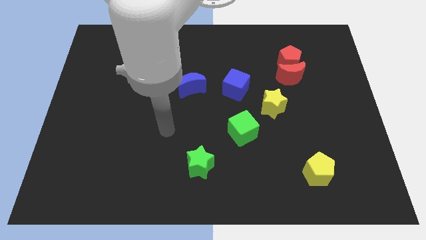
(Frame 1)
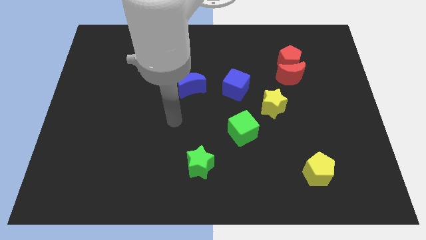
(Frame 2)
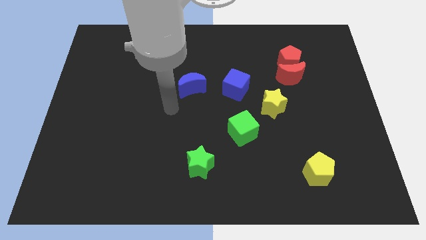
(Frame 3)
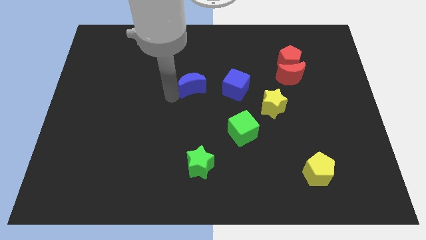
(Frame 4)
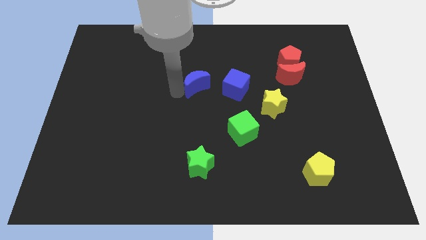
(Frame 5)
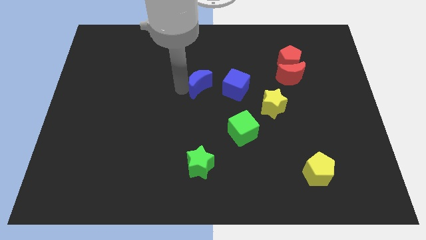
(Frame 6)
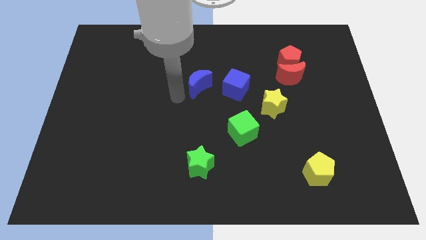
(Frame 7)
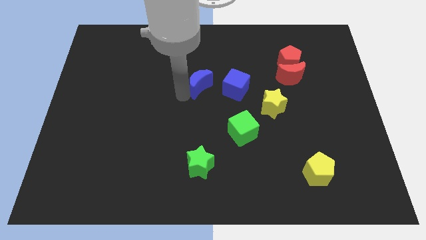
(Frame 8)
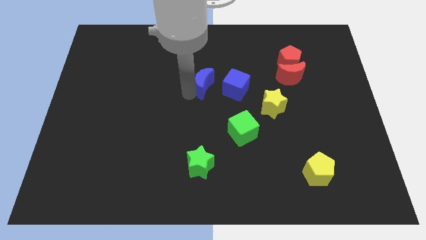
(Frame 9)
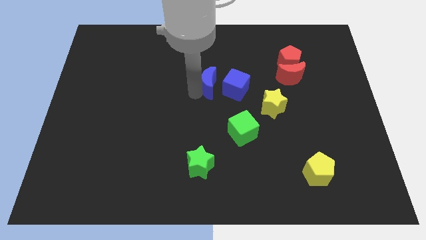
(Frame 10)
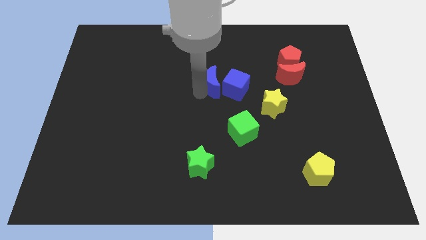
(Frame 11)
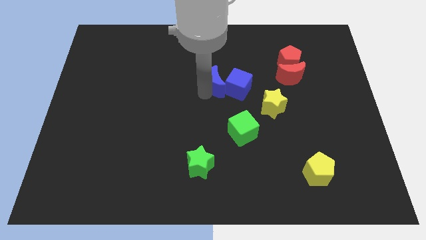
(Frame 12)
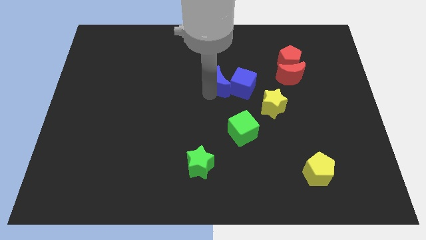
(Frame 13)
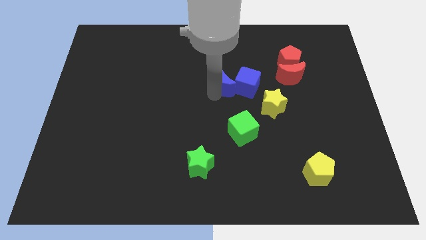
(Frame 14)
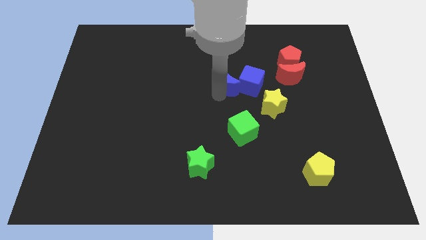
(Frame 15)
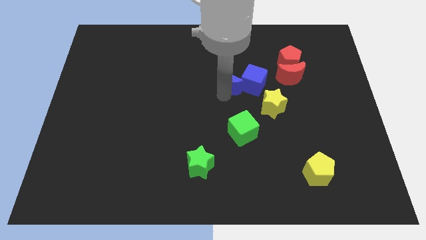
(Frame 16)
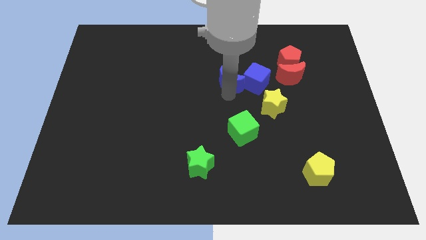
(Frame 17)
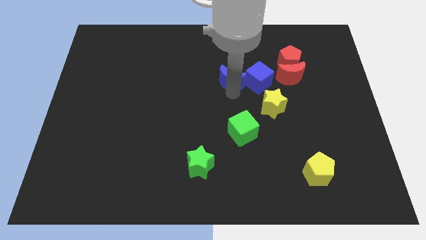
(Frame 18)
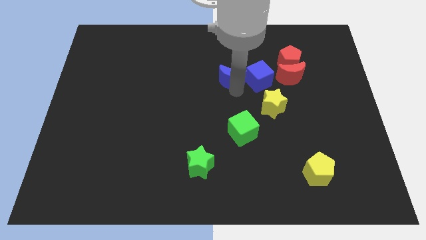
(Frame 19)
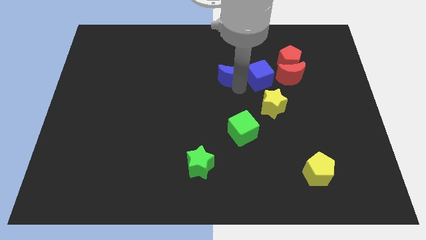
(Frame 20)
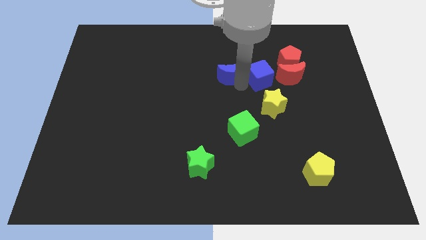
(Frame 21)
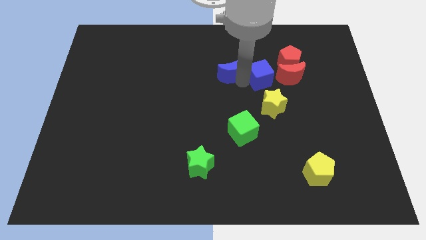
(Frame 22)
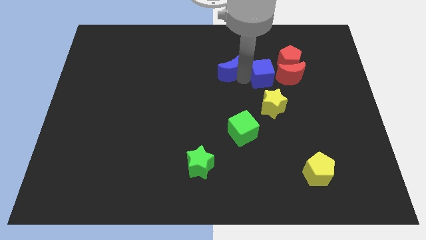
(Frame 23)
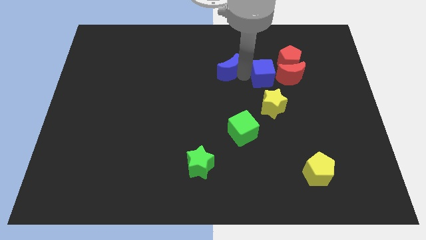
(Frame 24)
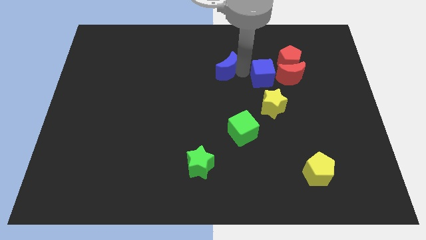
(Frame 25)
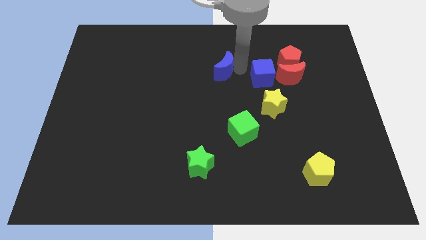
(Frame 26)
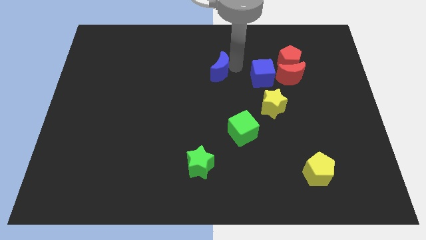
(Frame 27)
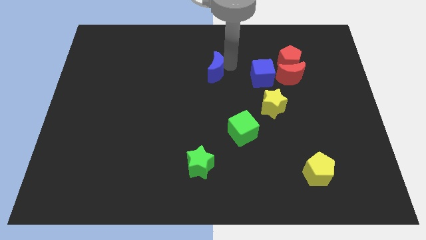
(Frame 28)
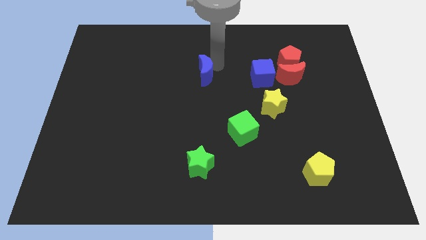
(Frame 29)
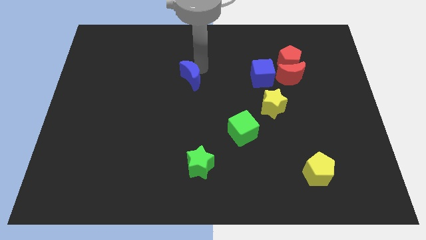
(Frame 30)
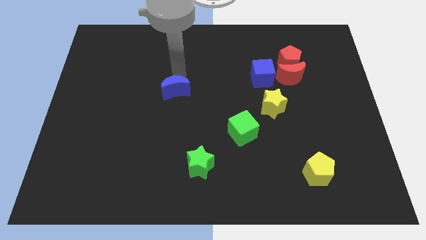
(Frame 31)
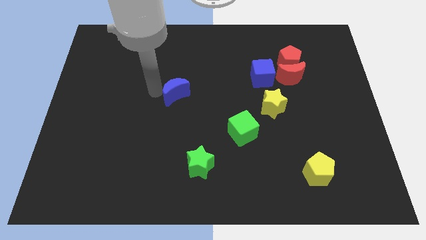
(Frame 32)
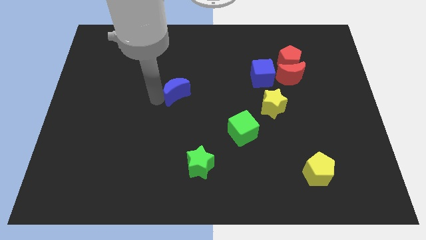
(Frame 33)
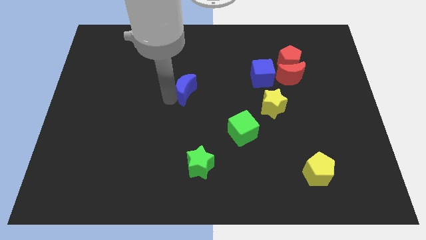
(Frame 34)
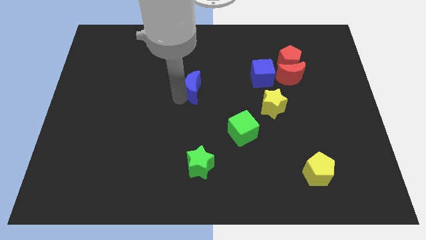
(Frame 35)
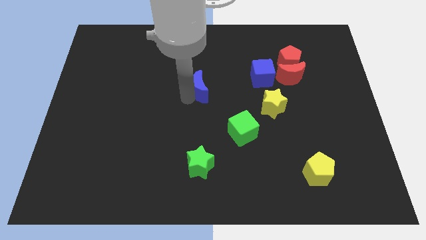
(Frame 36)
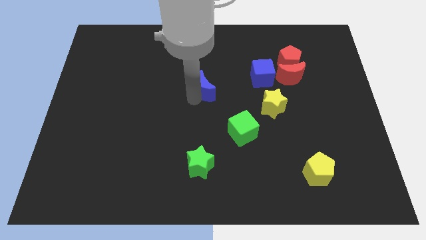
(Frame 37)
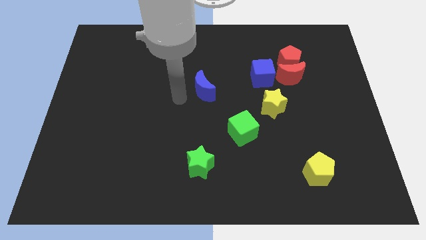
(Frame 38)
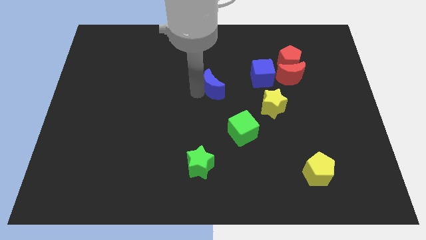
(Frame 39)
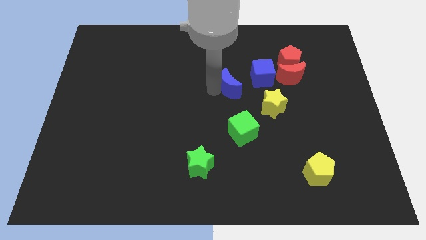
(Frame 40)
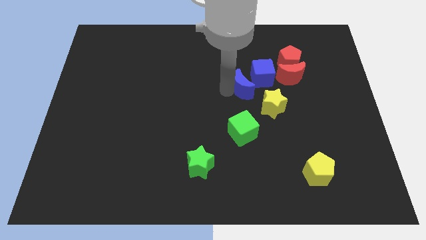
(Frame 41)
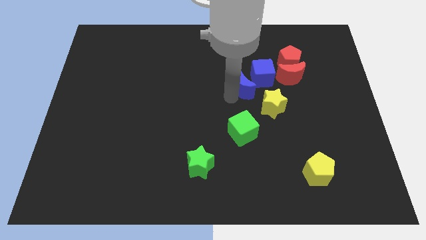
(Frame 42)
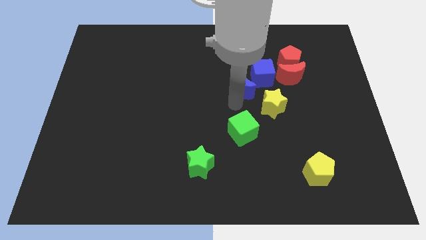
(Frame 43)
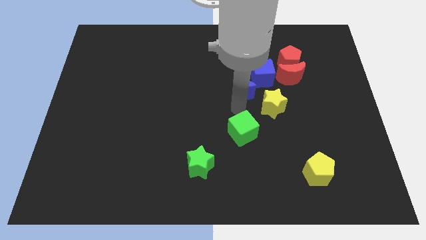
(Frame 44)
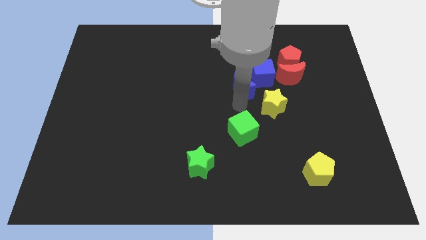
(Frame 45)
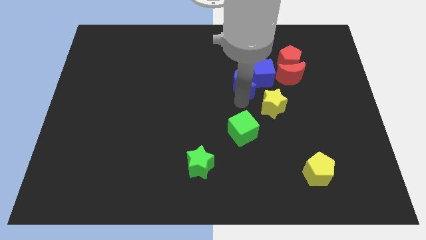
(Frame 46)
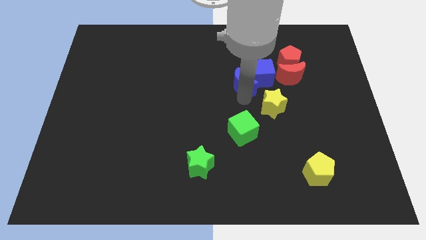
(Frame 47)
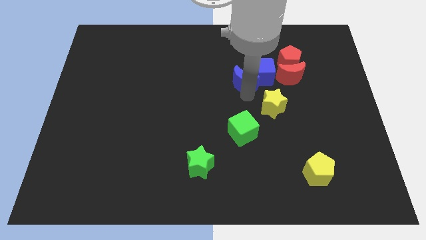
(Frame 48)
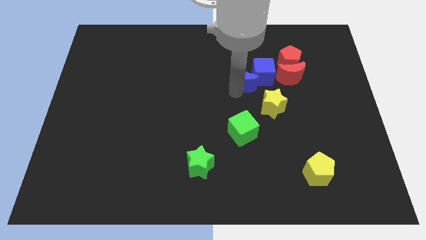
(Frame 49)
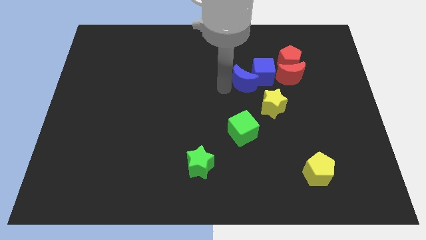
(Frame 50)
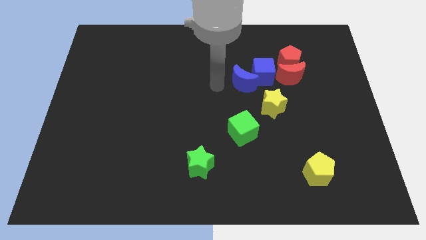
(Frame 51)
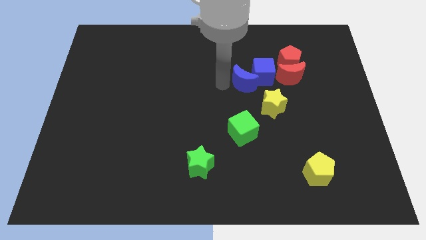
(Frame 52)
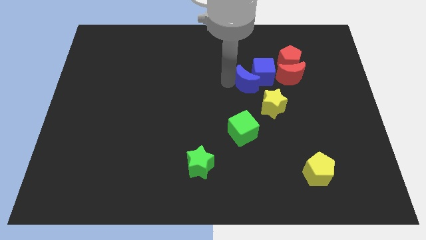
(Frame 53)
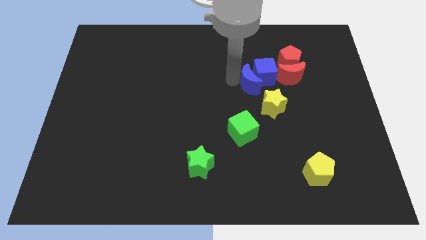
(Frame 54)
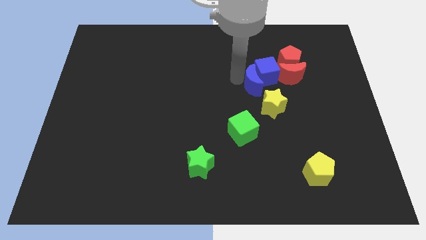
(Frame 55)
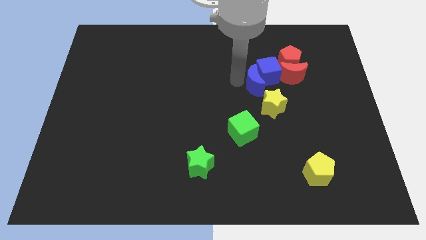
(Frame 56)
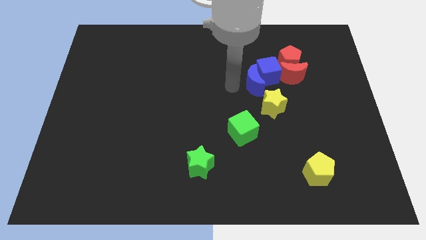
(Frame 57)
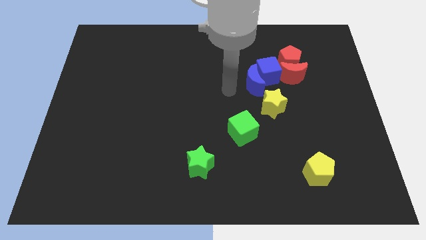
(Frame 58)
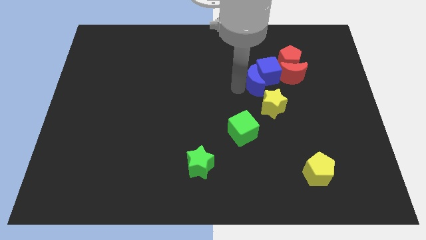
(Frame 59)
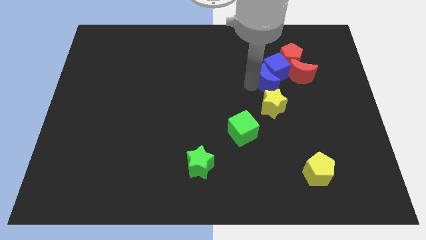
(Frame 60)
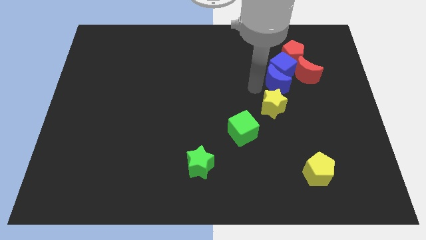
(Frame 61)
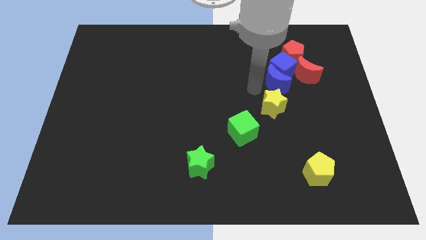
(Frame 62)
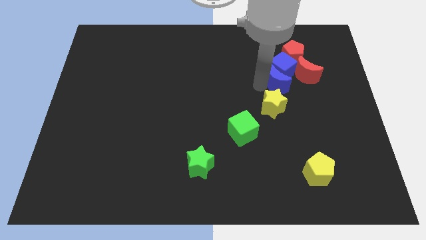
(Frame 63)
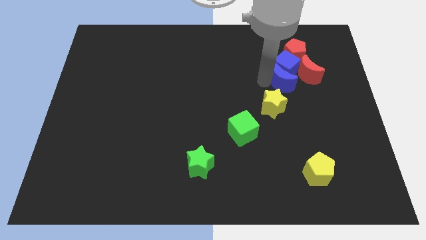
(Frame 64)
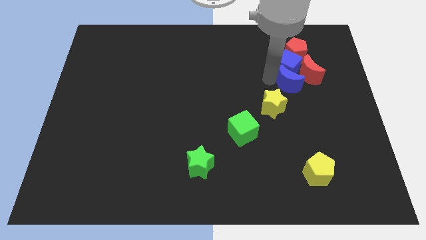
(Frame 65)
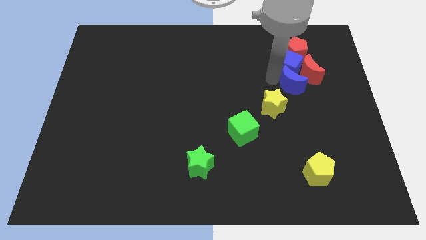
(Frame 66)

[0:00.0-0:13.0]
push the blue moon close to the red moon

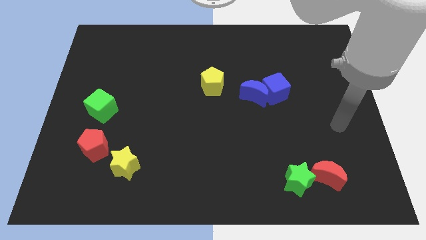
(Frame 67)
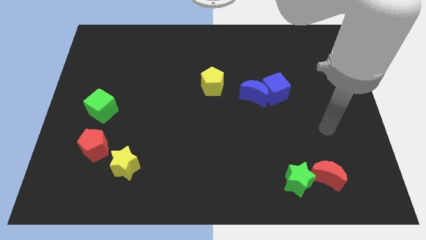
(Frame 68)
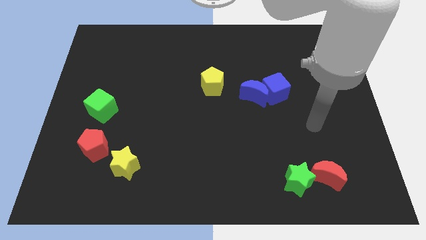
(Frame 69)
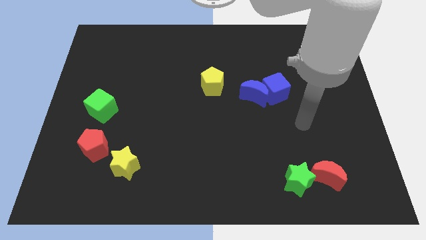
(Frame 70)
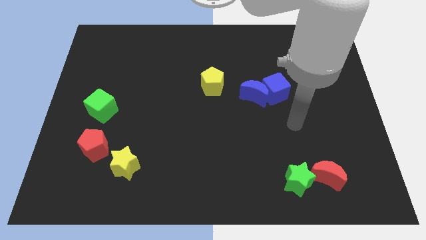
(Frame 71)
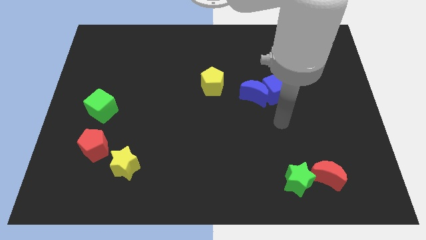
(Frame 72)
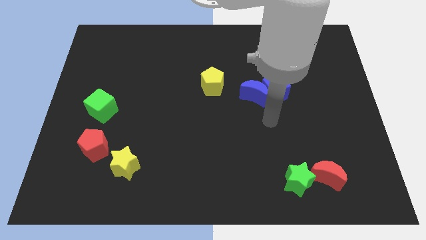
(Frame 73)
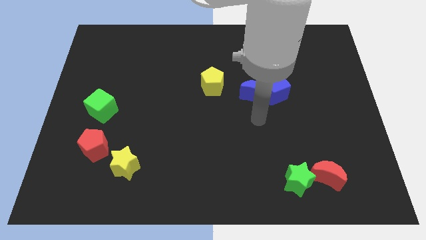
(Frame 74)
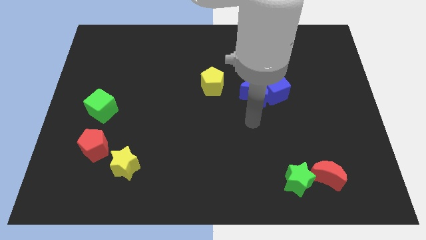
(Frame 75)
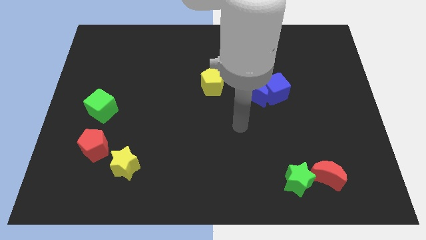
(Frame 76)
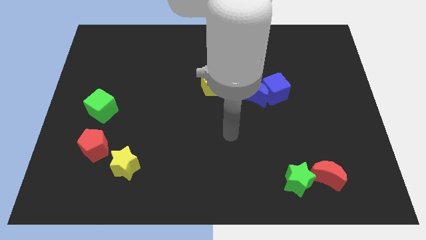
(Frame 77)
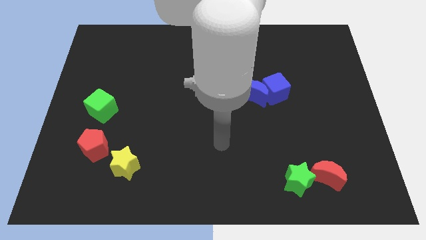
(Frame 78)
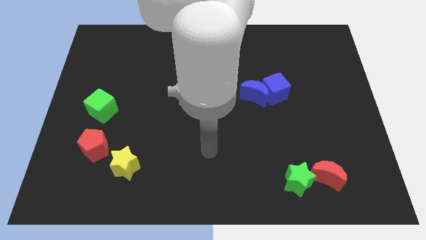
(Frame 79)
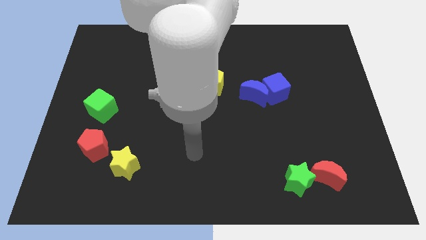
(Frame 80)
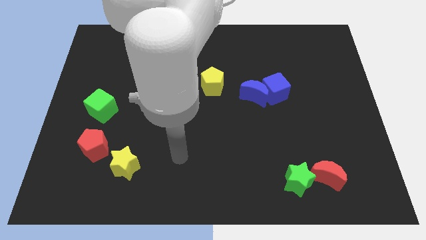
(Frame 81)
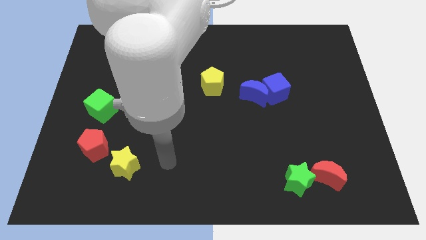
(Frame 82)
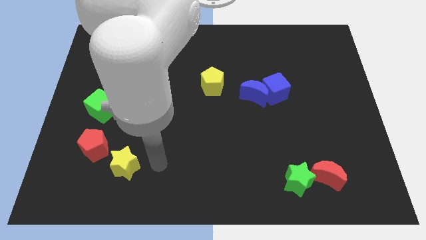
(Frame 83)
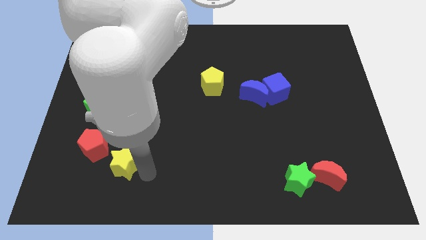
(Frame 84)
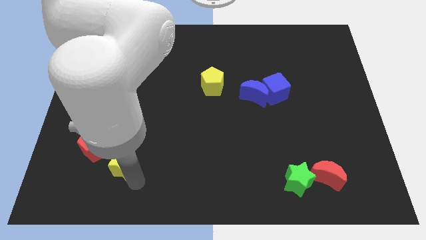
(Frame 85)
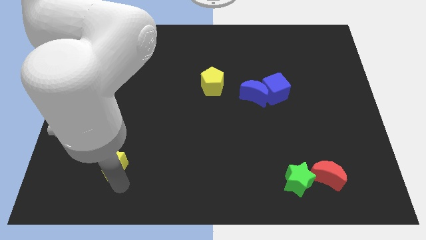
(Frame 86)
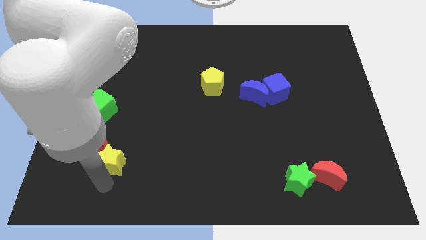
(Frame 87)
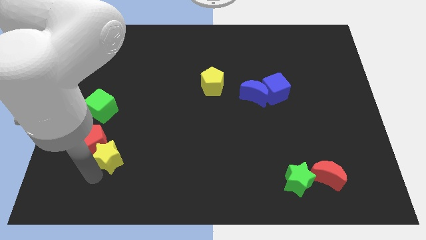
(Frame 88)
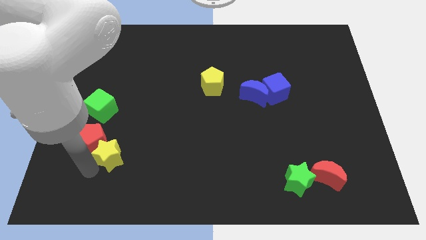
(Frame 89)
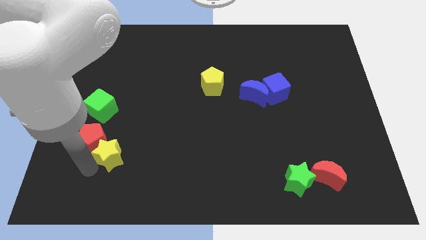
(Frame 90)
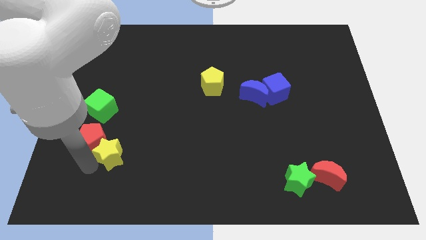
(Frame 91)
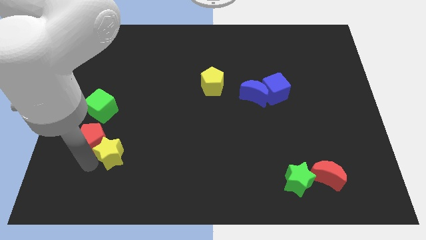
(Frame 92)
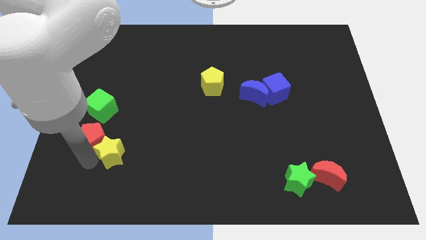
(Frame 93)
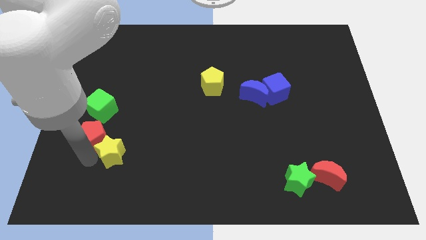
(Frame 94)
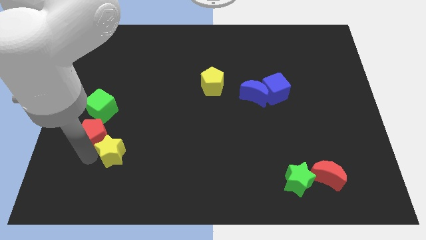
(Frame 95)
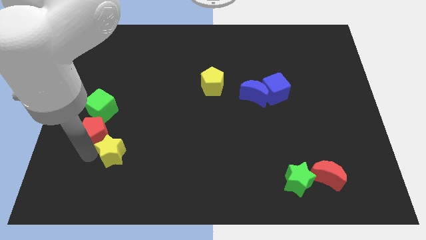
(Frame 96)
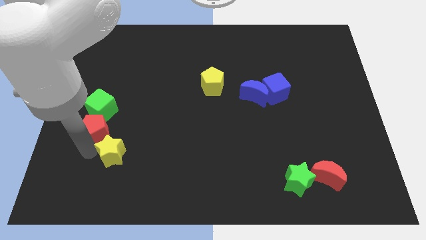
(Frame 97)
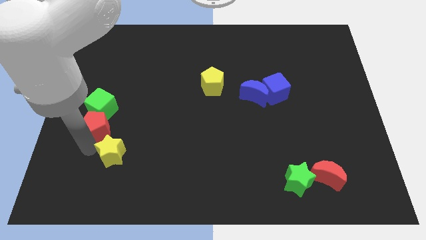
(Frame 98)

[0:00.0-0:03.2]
slide the red pentagon close to the green cube
